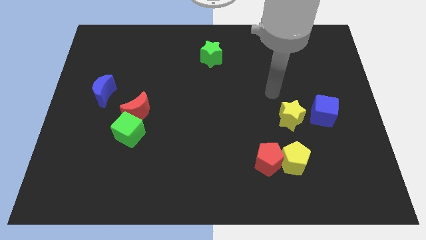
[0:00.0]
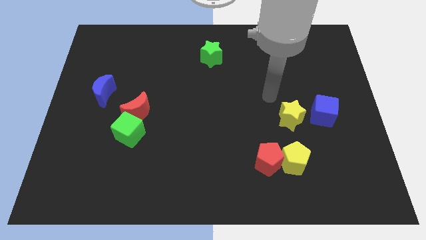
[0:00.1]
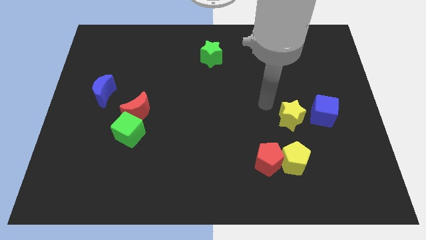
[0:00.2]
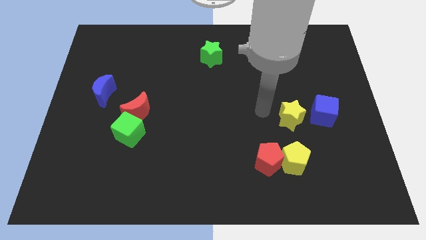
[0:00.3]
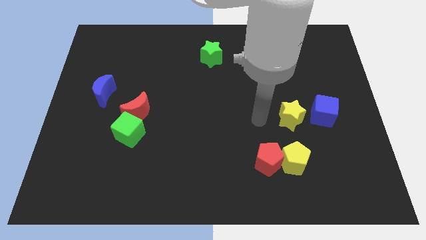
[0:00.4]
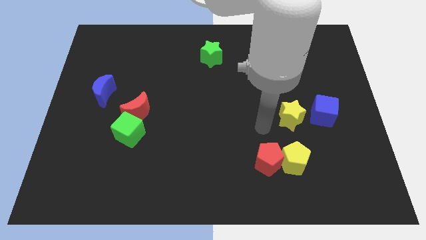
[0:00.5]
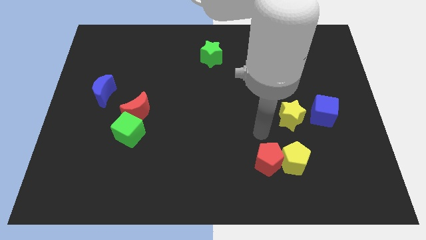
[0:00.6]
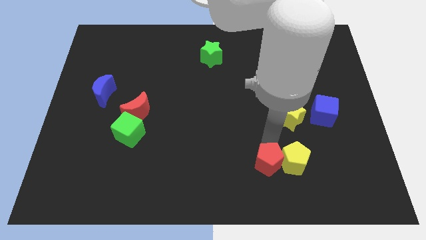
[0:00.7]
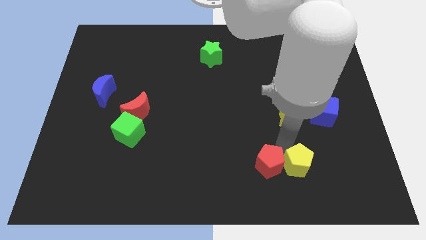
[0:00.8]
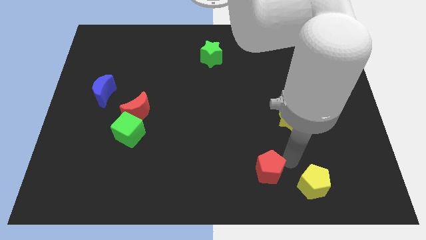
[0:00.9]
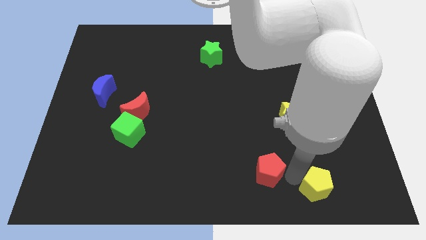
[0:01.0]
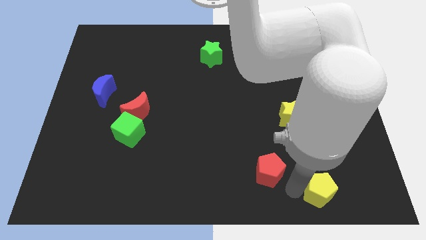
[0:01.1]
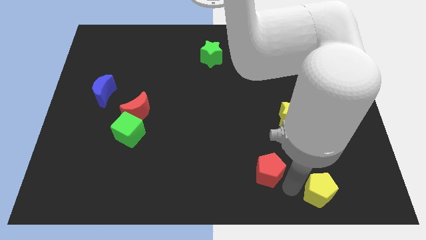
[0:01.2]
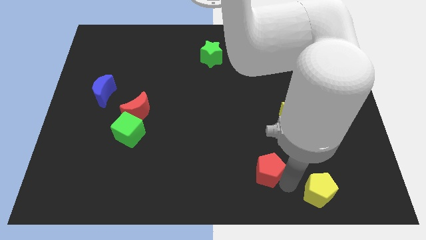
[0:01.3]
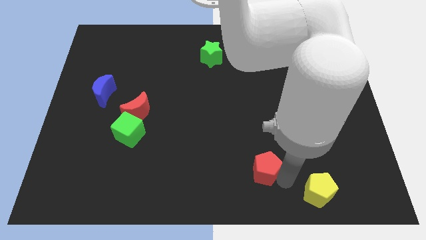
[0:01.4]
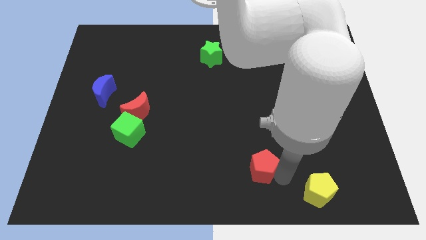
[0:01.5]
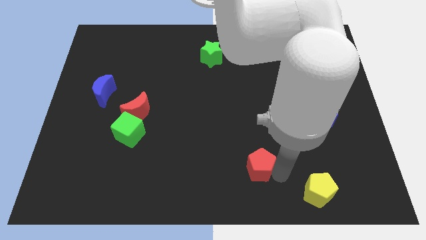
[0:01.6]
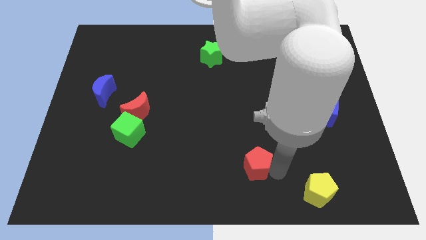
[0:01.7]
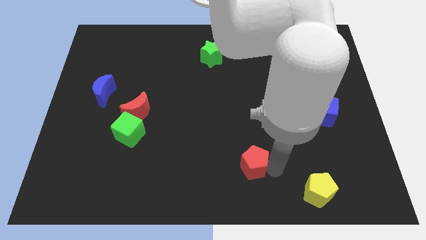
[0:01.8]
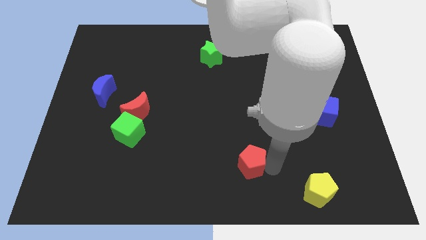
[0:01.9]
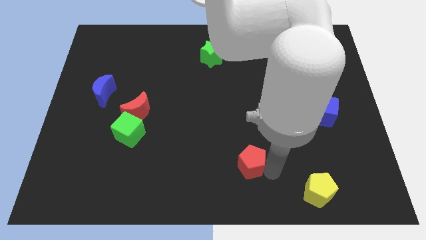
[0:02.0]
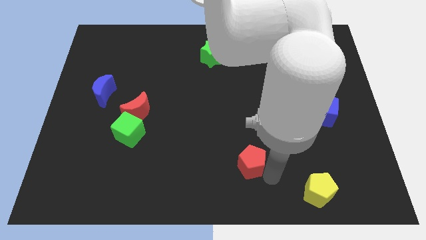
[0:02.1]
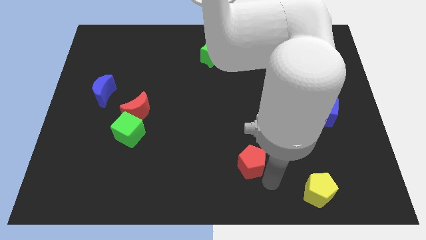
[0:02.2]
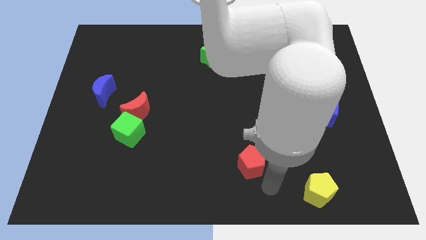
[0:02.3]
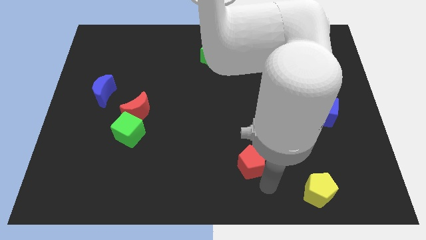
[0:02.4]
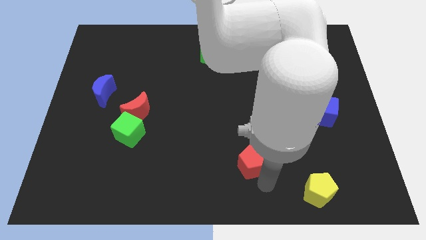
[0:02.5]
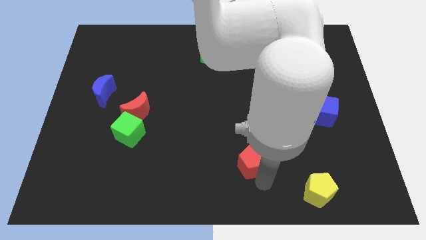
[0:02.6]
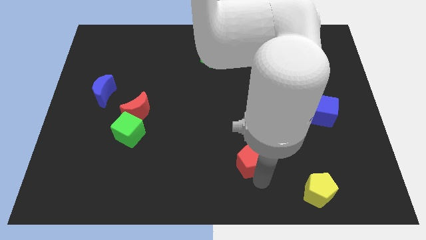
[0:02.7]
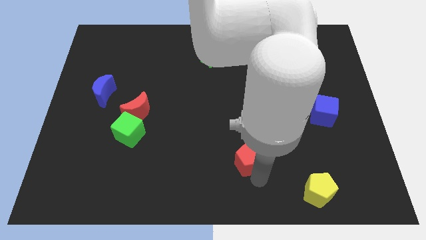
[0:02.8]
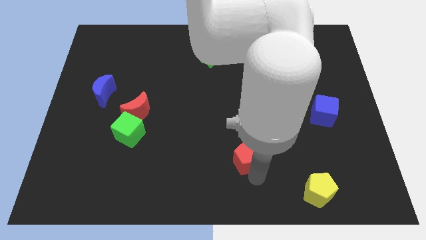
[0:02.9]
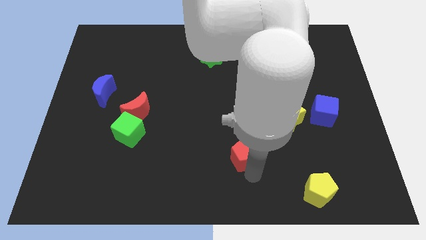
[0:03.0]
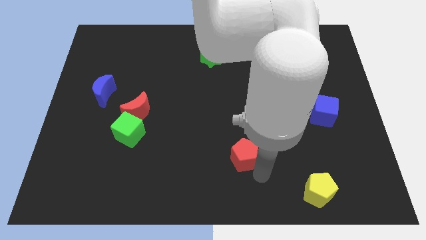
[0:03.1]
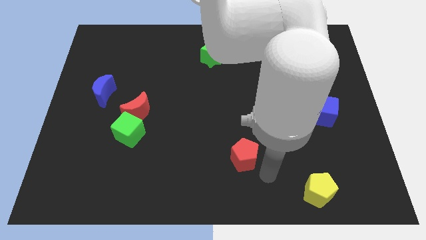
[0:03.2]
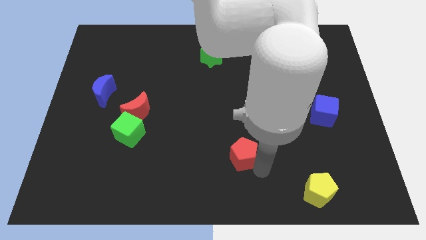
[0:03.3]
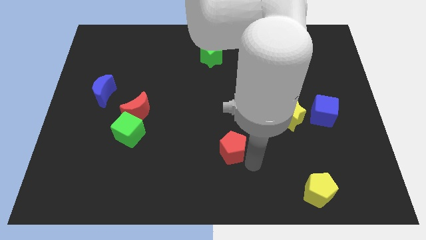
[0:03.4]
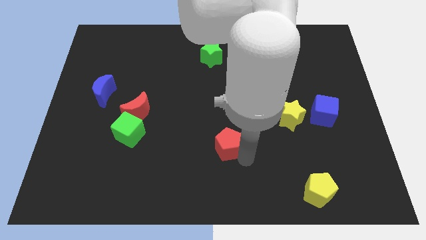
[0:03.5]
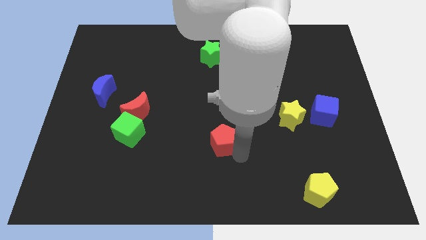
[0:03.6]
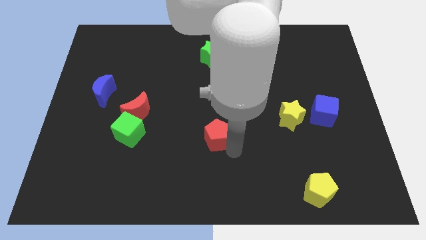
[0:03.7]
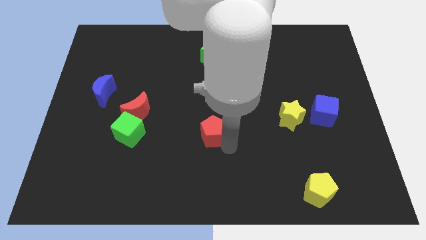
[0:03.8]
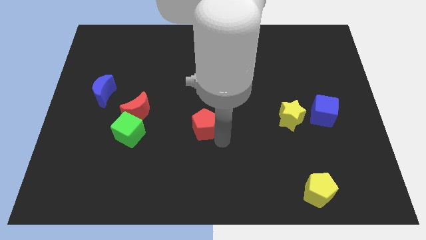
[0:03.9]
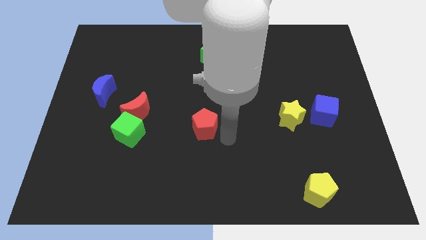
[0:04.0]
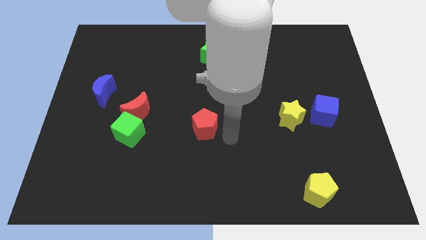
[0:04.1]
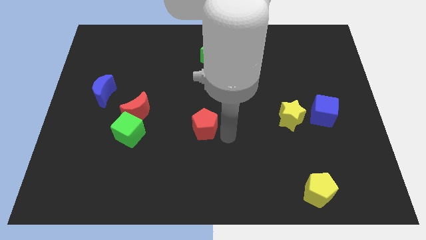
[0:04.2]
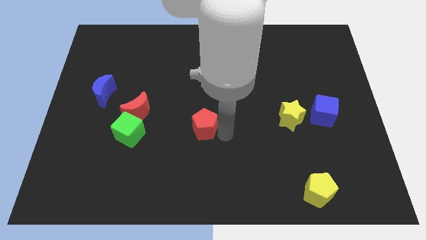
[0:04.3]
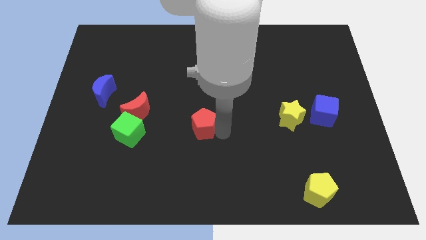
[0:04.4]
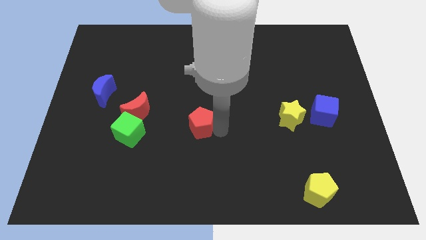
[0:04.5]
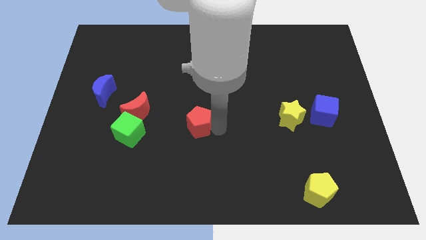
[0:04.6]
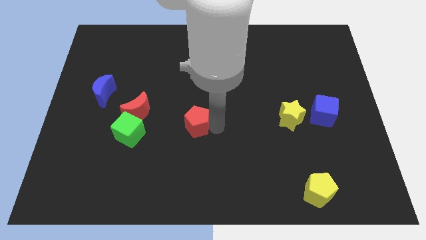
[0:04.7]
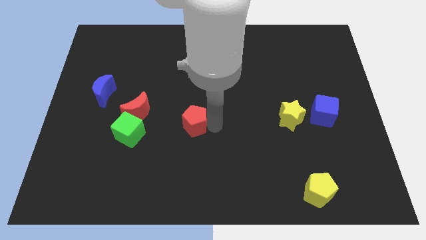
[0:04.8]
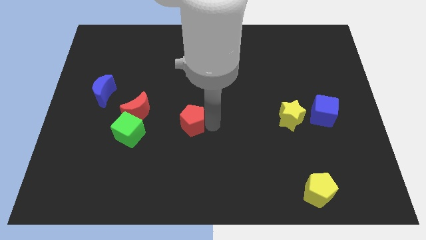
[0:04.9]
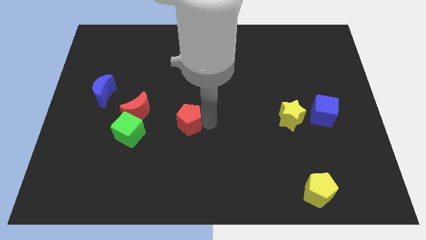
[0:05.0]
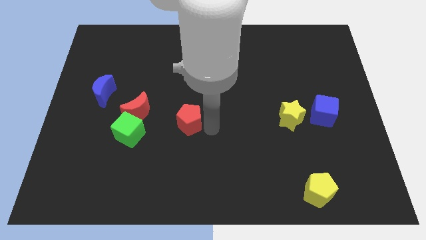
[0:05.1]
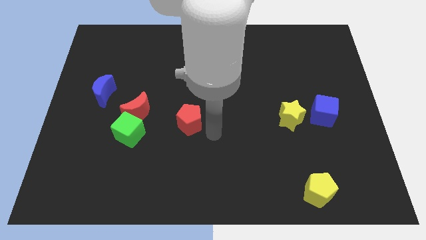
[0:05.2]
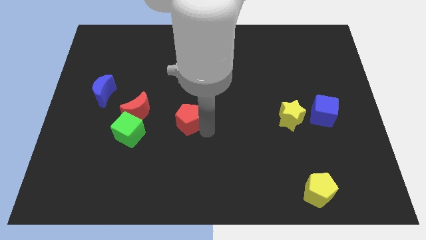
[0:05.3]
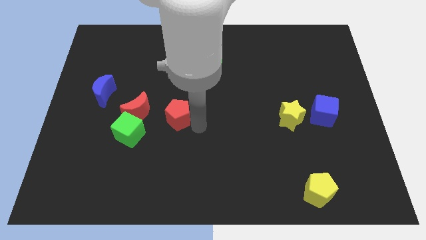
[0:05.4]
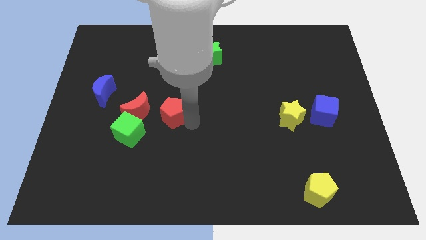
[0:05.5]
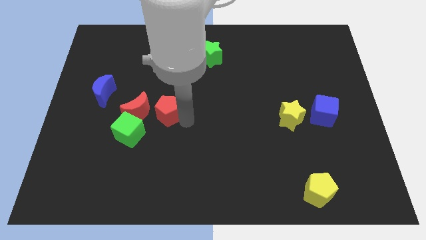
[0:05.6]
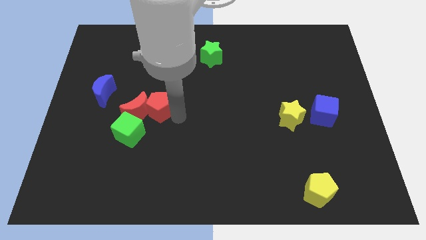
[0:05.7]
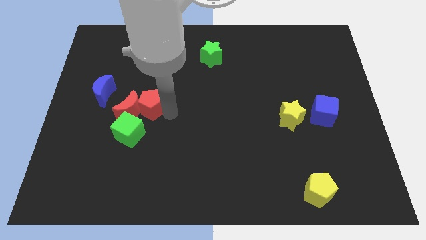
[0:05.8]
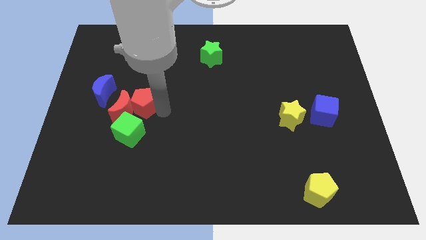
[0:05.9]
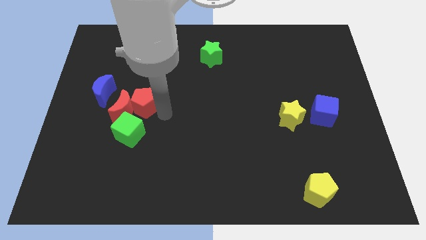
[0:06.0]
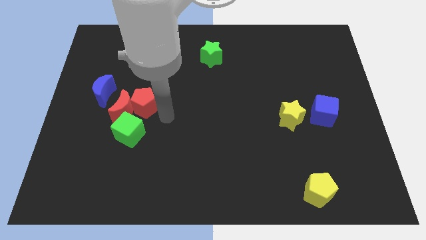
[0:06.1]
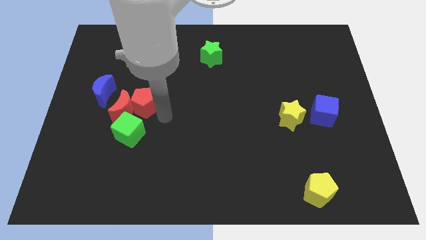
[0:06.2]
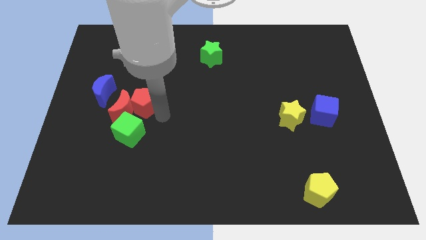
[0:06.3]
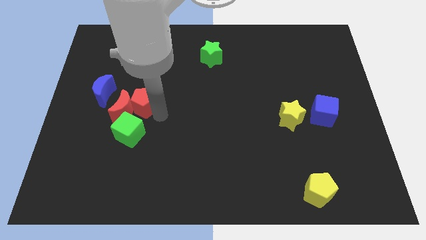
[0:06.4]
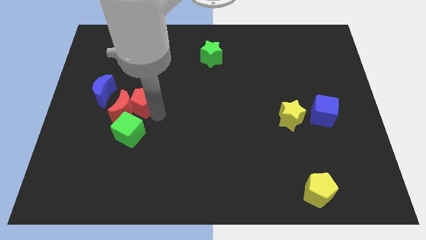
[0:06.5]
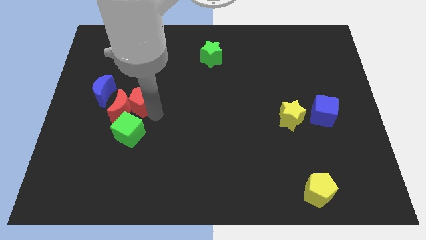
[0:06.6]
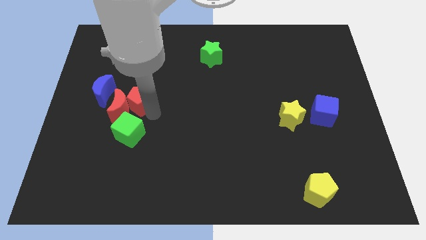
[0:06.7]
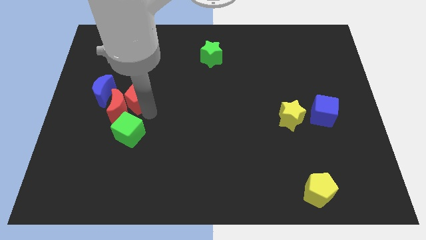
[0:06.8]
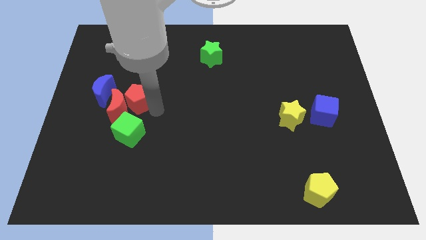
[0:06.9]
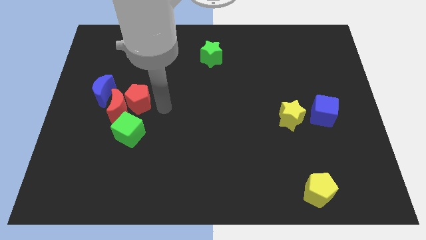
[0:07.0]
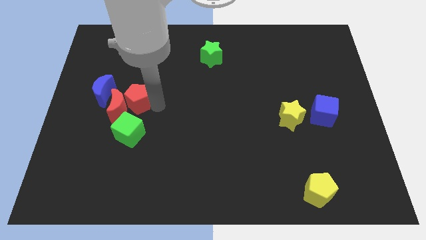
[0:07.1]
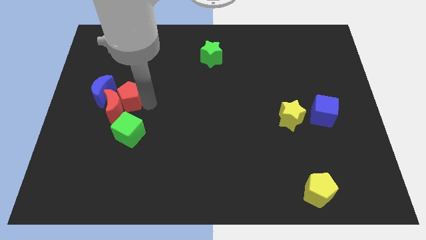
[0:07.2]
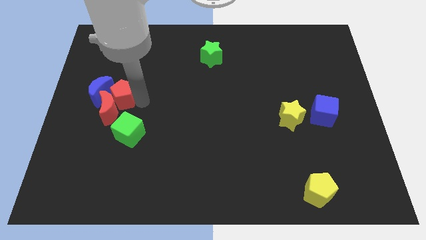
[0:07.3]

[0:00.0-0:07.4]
move the red pentagon towards the blue moon

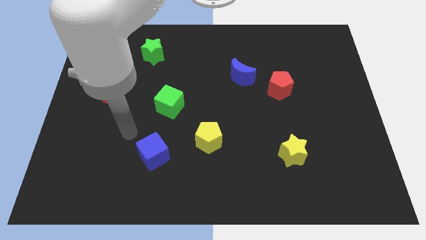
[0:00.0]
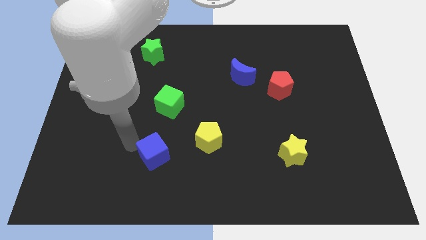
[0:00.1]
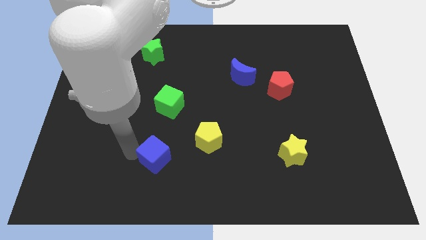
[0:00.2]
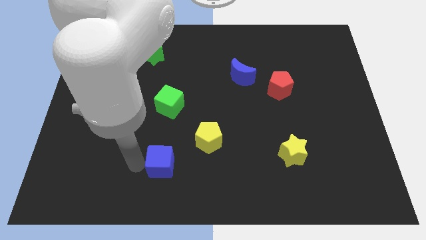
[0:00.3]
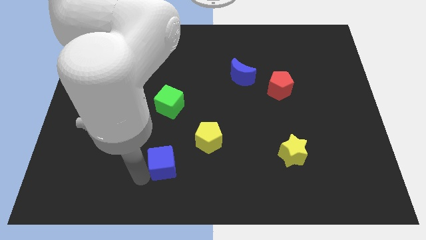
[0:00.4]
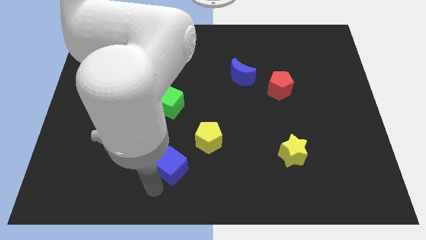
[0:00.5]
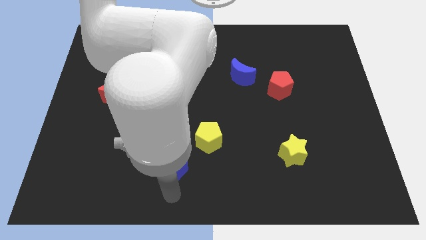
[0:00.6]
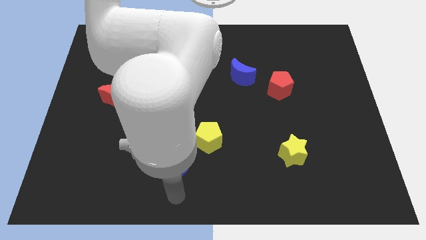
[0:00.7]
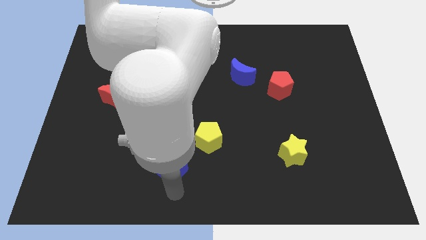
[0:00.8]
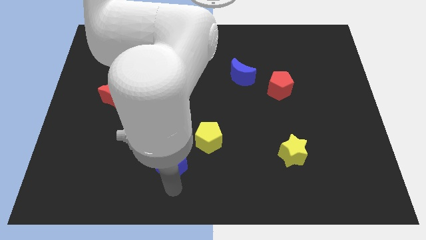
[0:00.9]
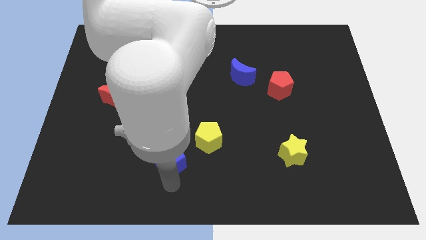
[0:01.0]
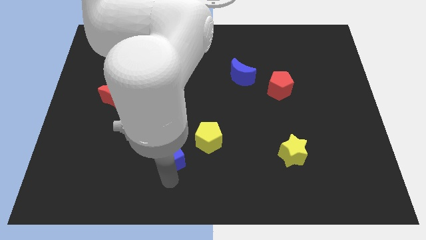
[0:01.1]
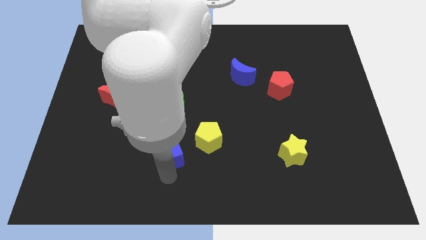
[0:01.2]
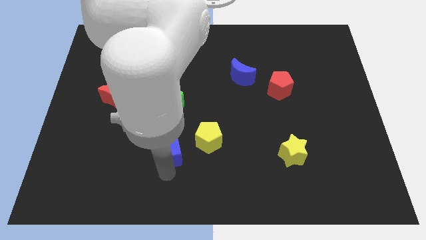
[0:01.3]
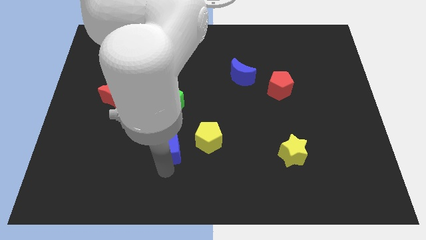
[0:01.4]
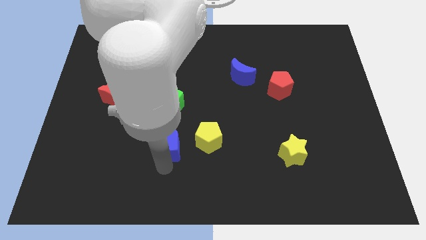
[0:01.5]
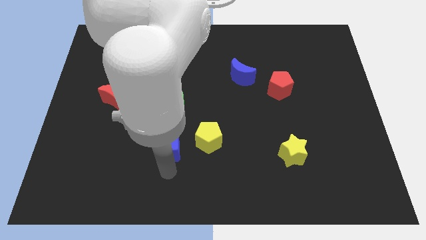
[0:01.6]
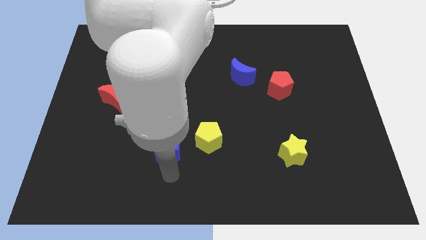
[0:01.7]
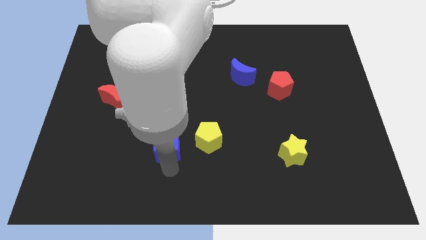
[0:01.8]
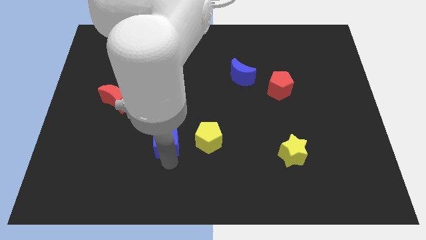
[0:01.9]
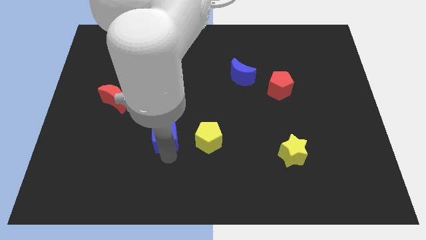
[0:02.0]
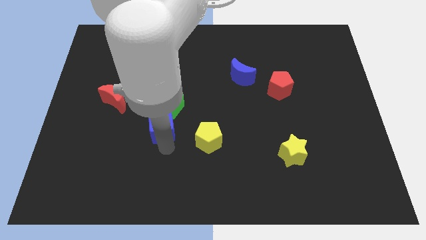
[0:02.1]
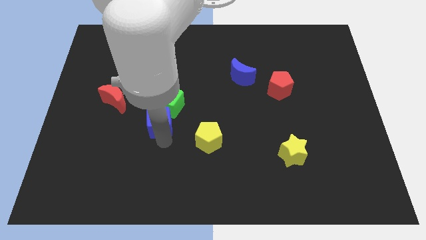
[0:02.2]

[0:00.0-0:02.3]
move the blue cube towards the green cube
